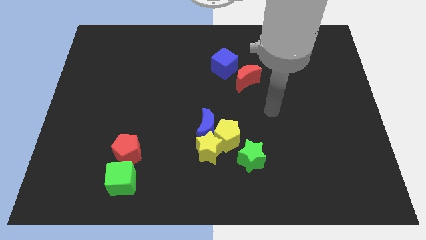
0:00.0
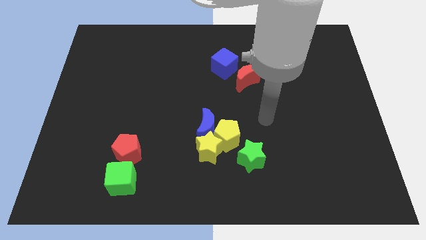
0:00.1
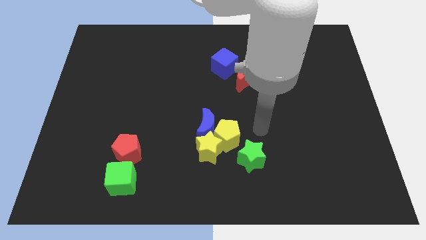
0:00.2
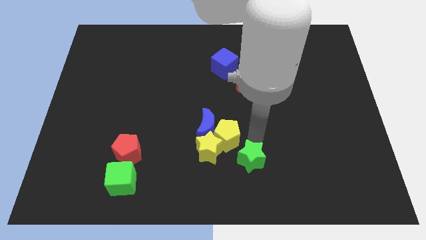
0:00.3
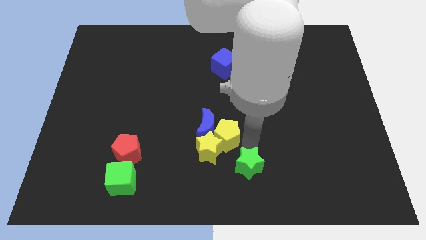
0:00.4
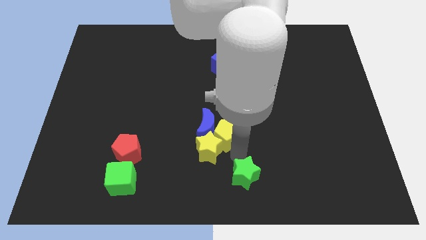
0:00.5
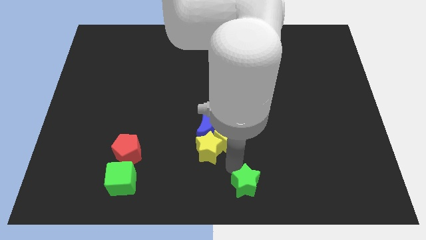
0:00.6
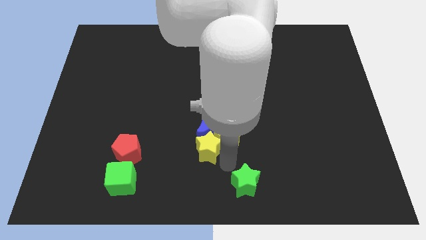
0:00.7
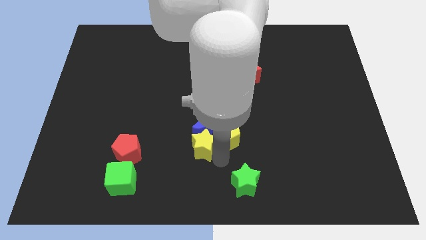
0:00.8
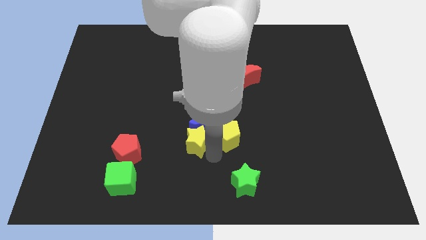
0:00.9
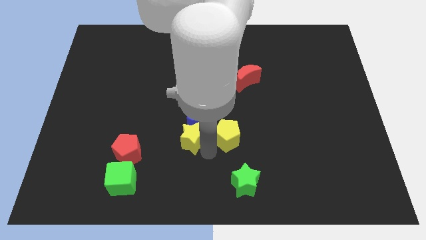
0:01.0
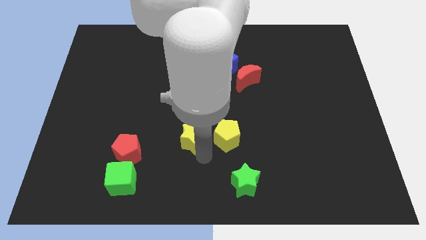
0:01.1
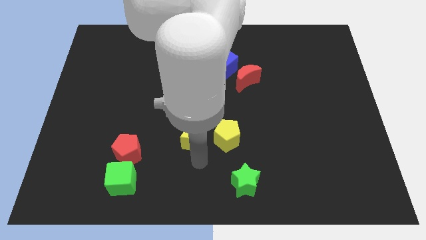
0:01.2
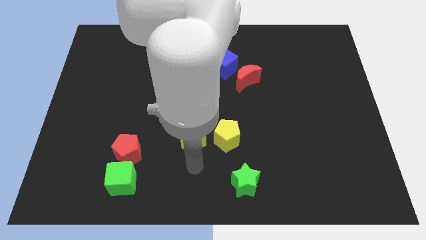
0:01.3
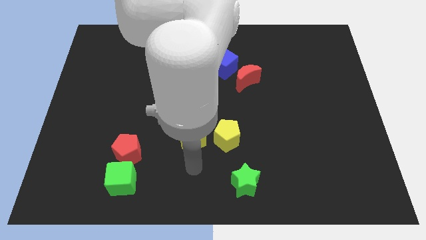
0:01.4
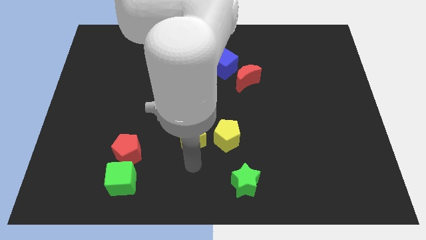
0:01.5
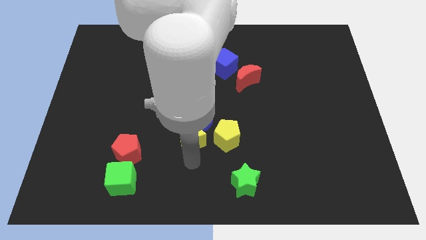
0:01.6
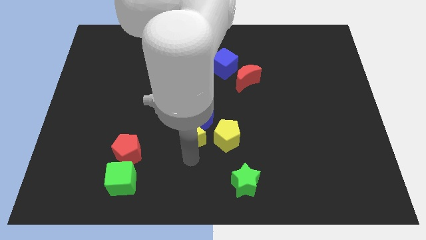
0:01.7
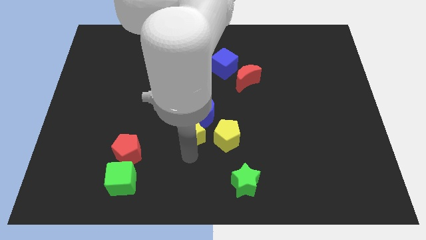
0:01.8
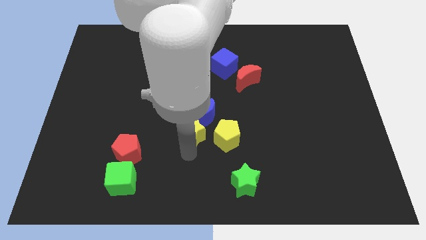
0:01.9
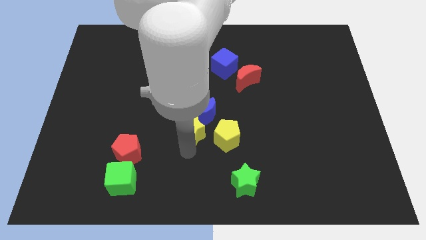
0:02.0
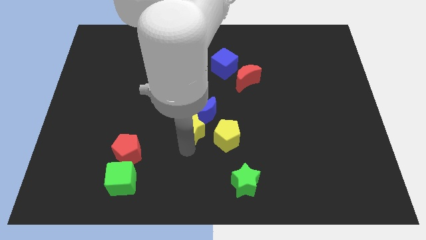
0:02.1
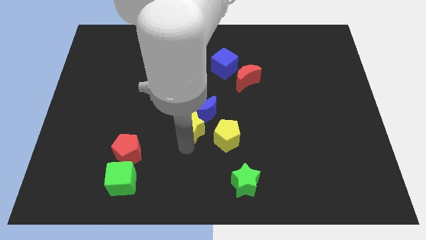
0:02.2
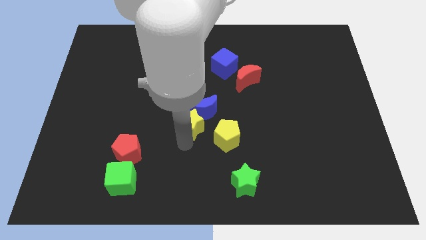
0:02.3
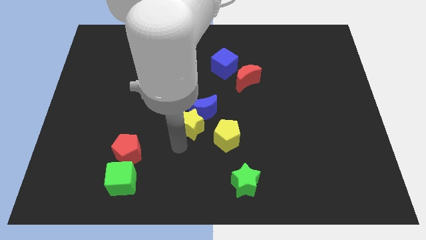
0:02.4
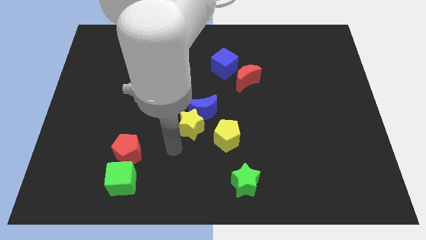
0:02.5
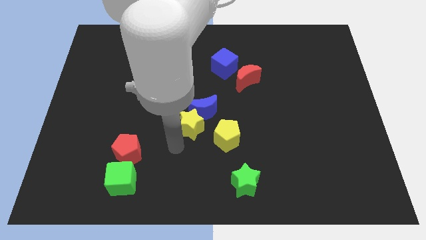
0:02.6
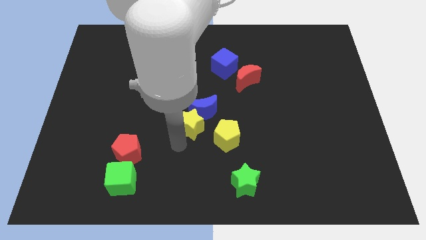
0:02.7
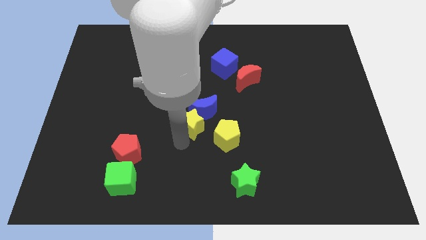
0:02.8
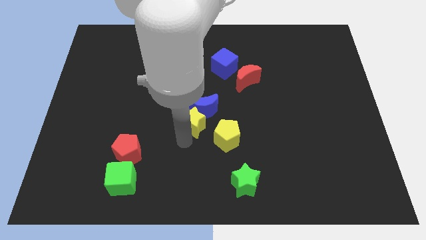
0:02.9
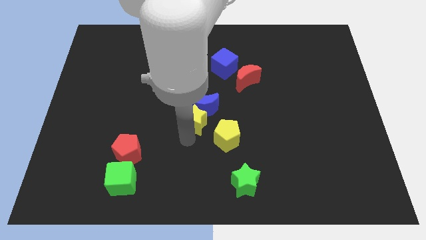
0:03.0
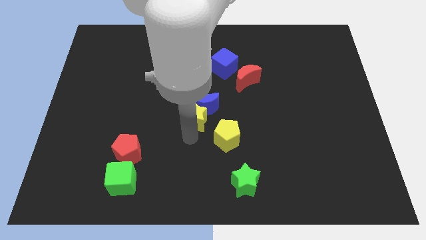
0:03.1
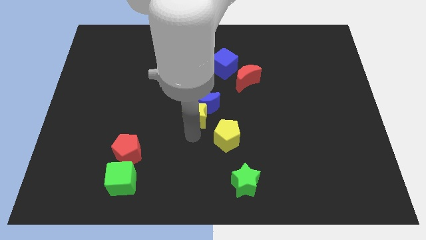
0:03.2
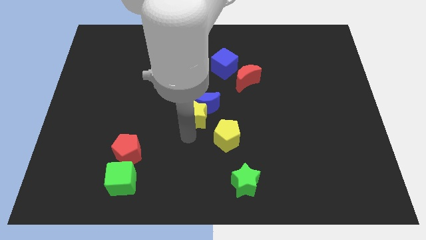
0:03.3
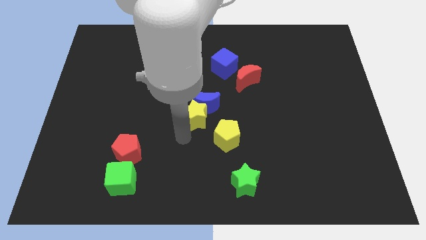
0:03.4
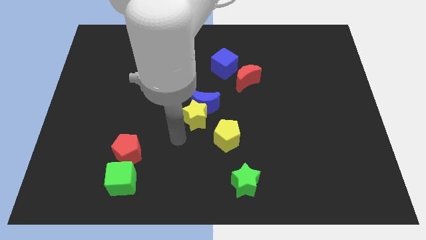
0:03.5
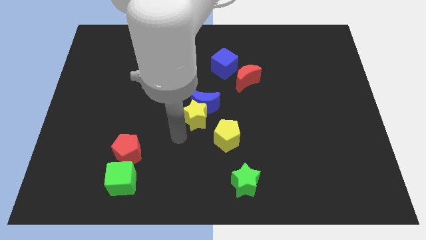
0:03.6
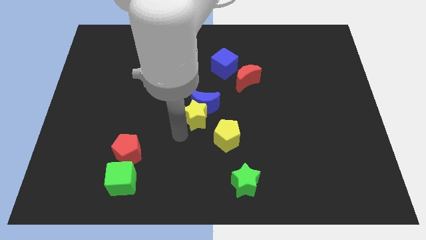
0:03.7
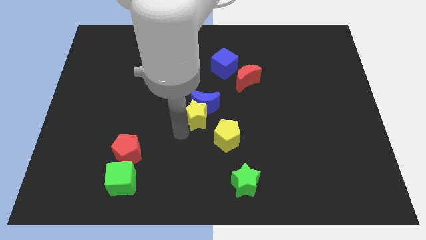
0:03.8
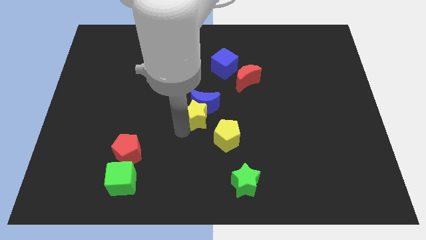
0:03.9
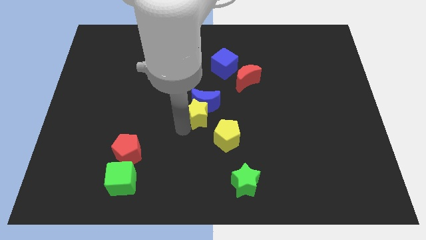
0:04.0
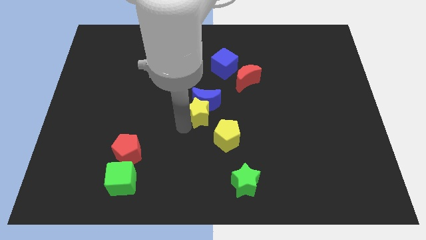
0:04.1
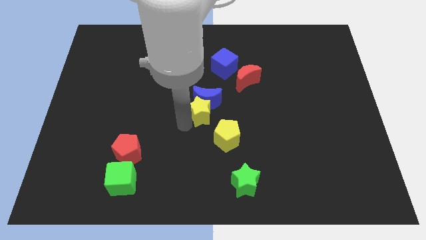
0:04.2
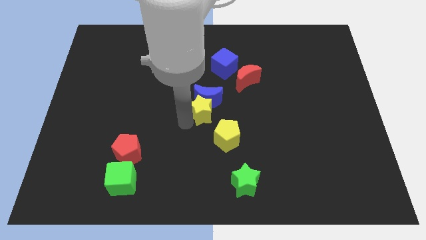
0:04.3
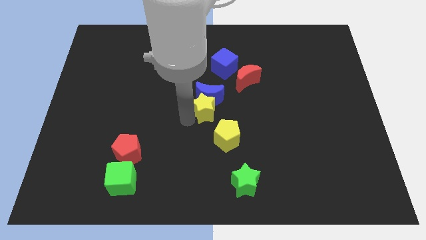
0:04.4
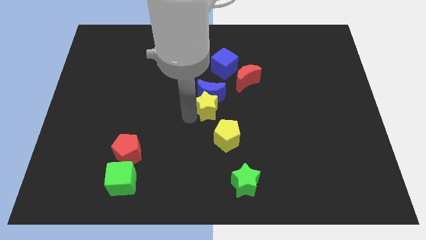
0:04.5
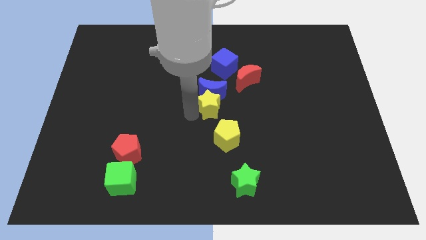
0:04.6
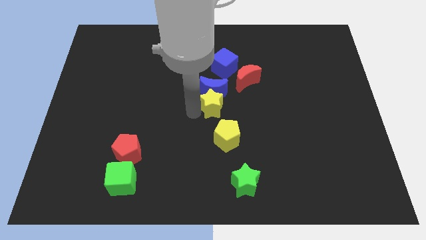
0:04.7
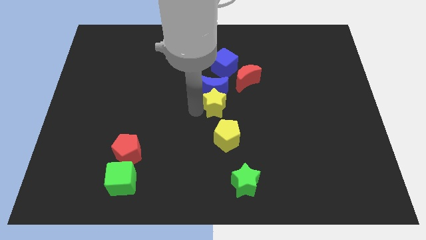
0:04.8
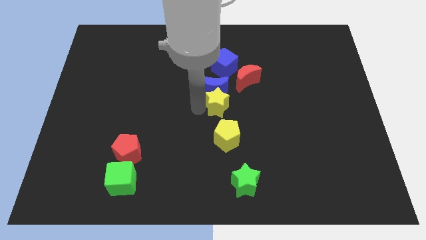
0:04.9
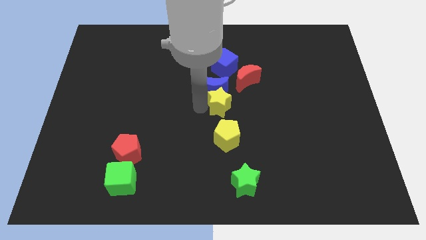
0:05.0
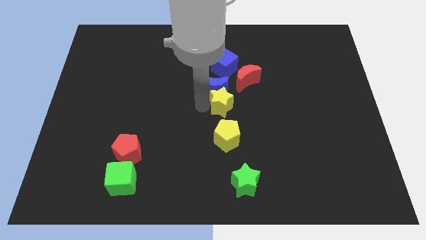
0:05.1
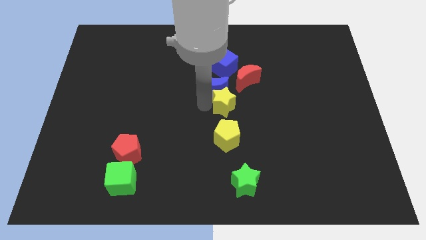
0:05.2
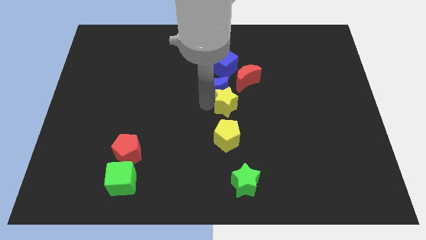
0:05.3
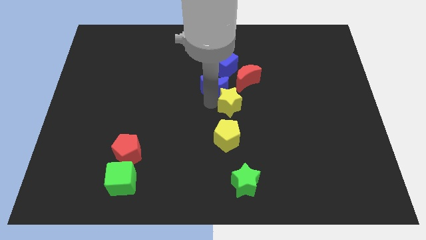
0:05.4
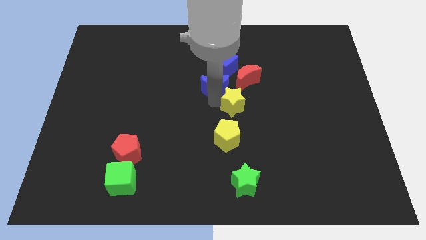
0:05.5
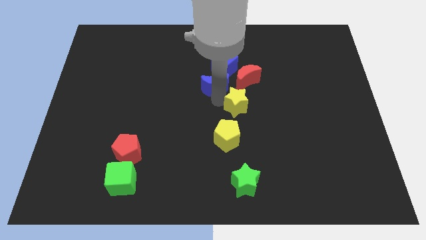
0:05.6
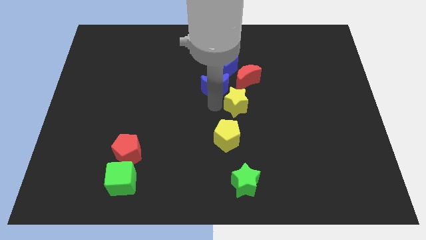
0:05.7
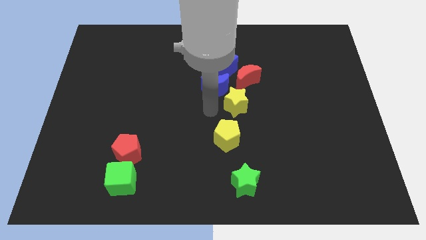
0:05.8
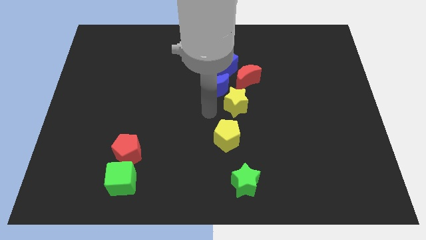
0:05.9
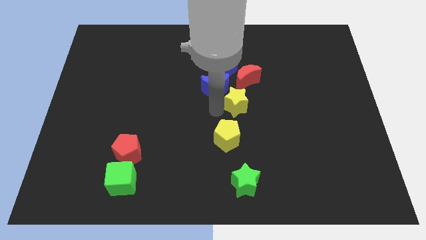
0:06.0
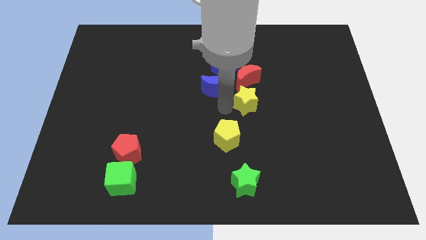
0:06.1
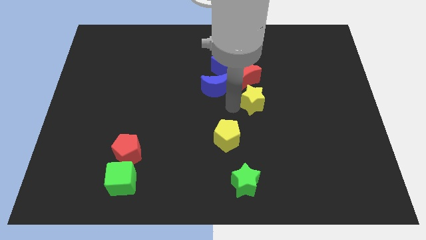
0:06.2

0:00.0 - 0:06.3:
move the yellow star diagonally down and to the right of the red moon

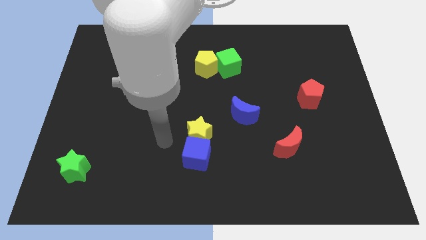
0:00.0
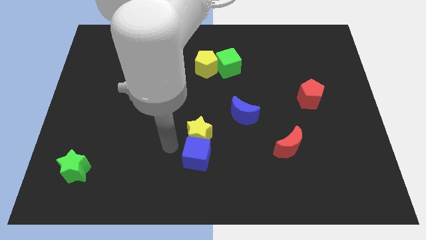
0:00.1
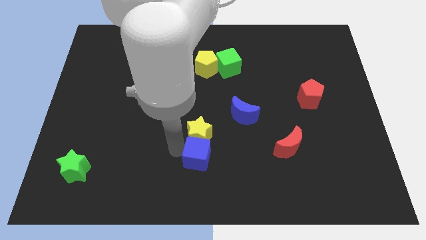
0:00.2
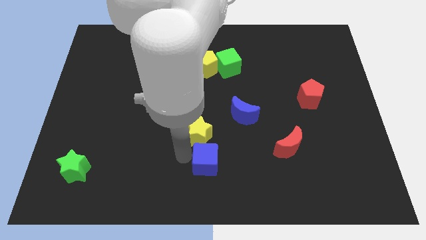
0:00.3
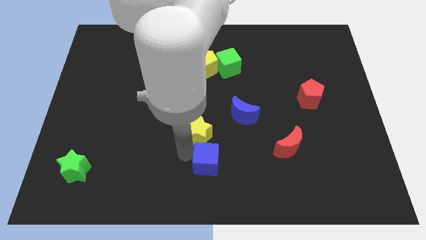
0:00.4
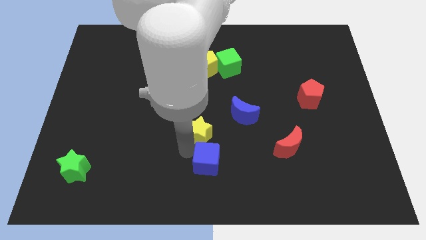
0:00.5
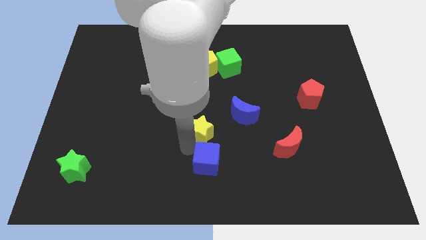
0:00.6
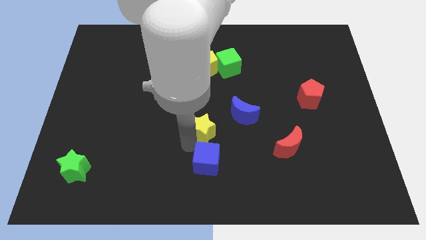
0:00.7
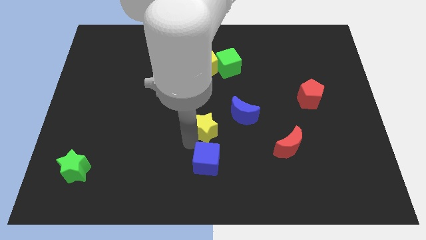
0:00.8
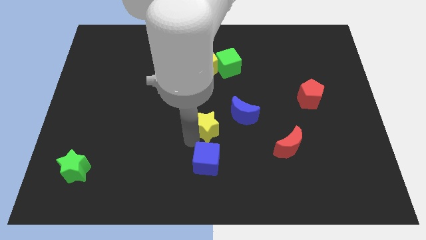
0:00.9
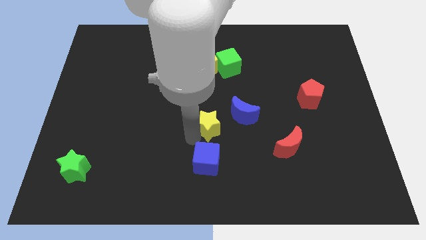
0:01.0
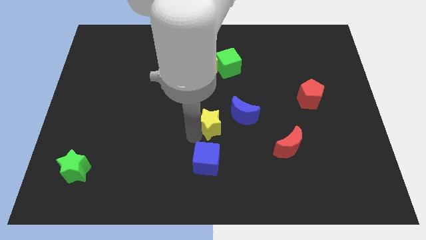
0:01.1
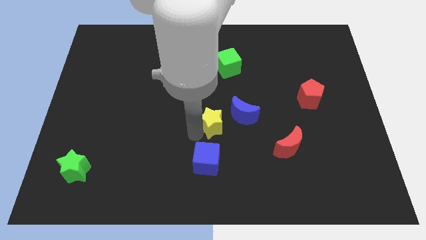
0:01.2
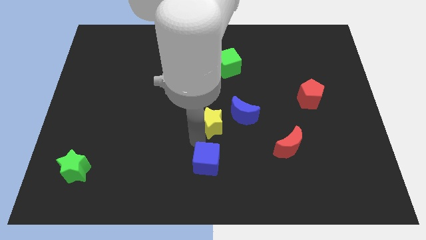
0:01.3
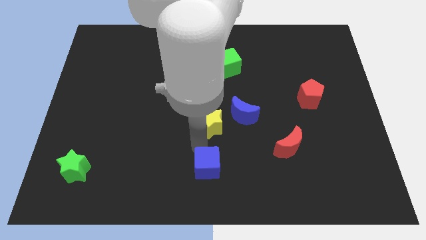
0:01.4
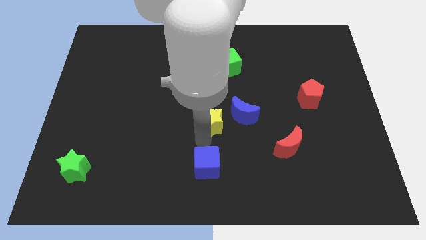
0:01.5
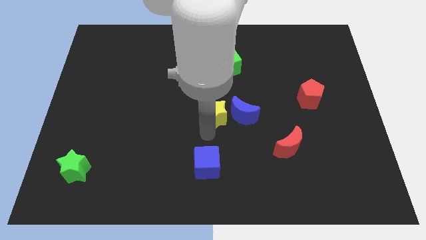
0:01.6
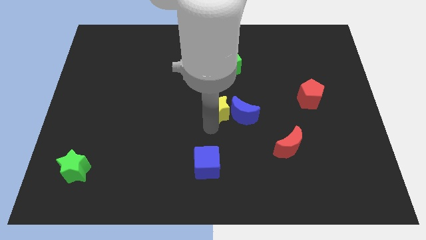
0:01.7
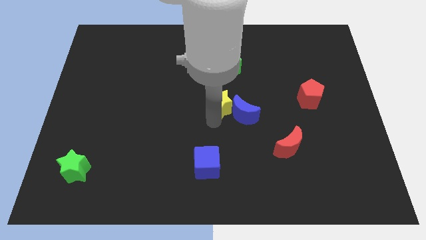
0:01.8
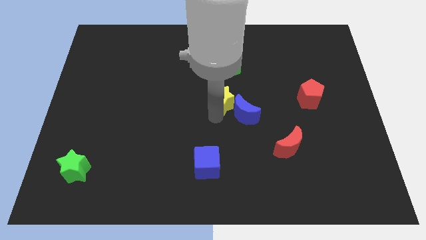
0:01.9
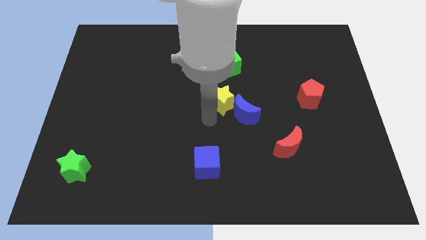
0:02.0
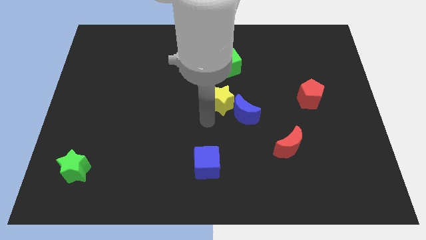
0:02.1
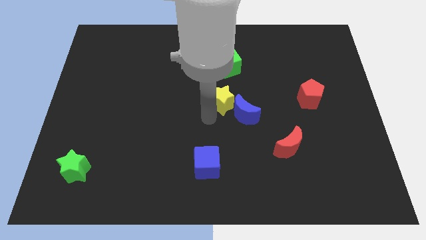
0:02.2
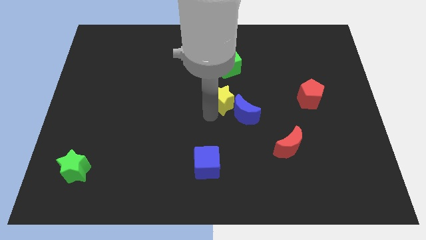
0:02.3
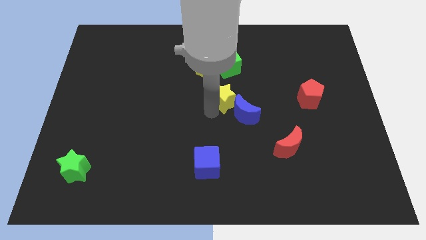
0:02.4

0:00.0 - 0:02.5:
slide the yellow star to the top side of the blue moon
